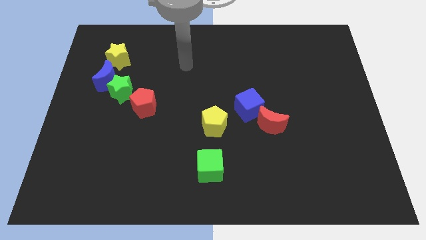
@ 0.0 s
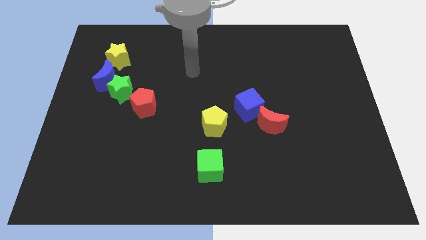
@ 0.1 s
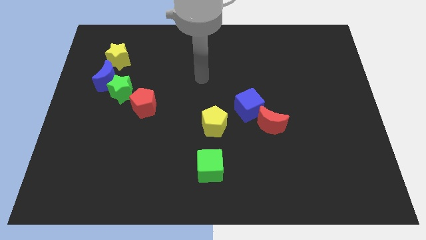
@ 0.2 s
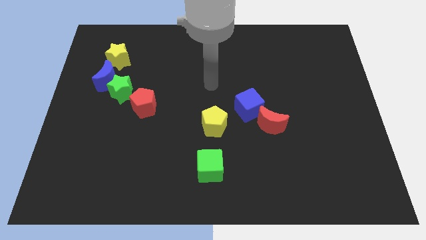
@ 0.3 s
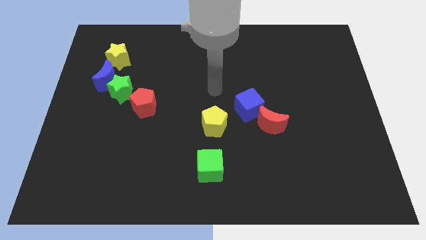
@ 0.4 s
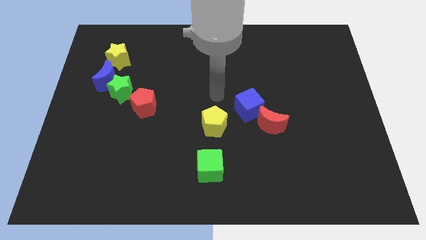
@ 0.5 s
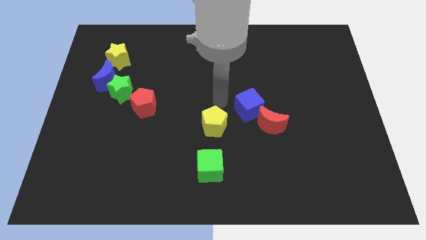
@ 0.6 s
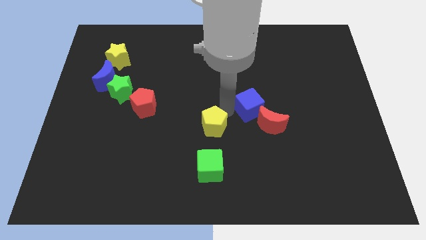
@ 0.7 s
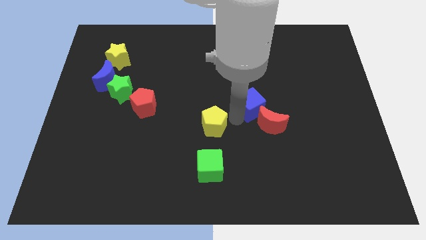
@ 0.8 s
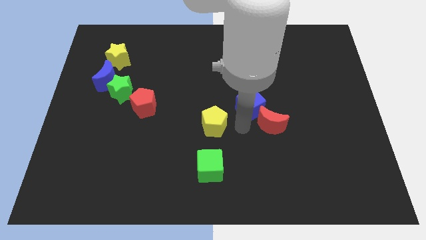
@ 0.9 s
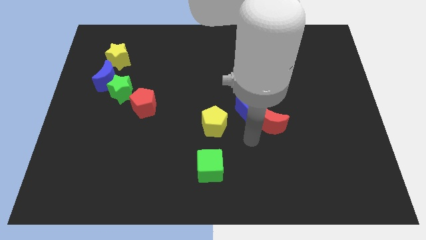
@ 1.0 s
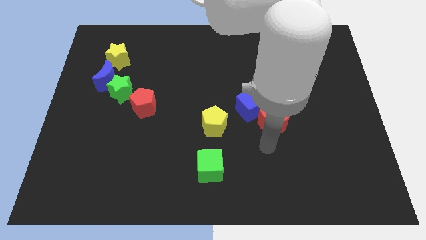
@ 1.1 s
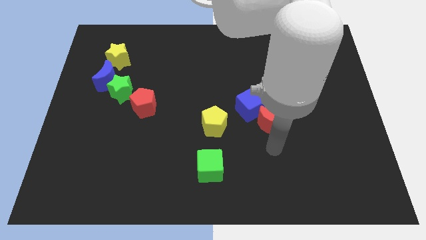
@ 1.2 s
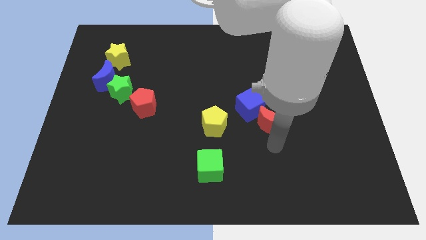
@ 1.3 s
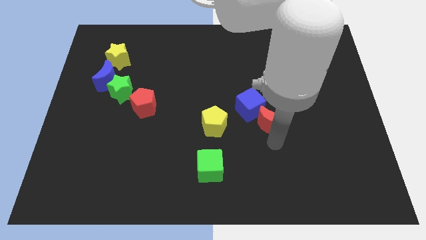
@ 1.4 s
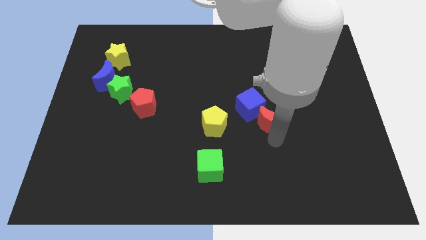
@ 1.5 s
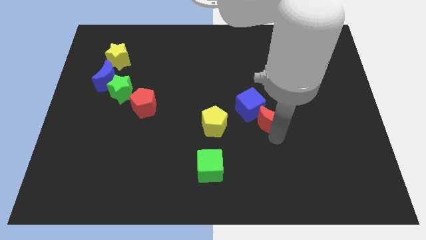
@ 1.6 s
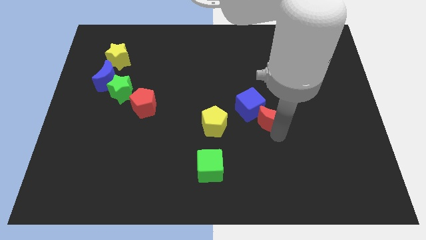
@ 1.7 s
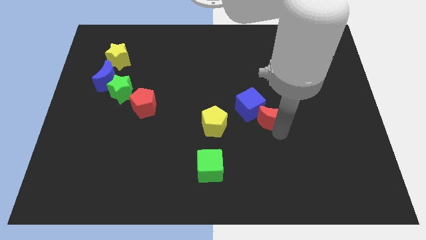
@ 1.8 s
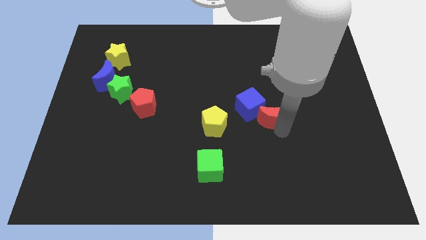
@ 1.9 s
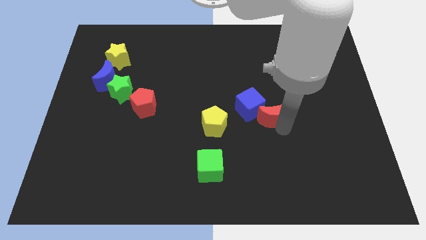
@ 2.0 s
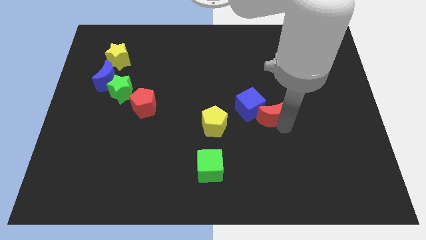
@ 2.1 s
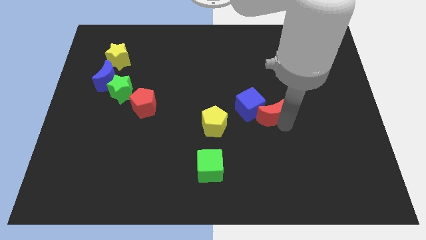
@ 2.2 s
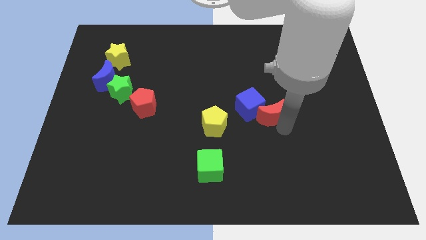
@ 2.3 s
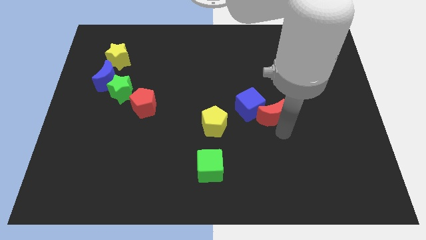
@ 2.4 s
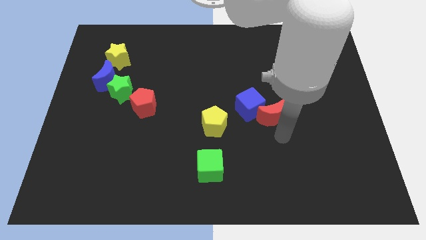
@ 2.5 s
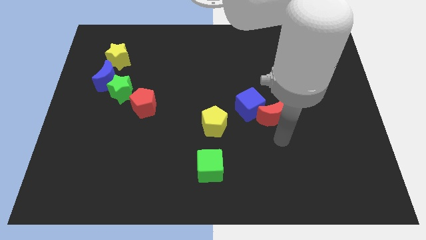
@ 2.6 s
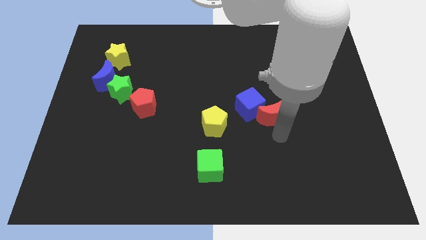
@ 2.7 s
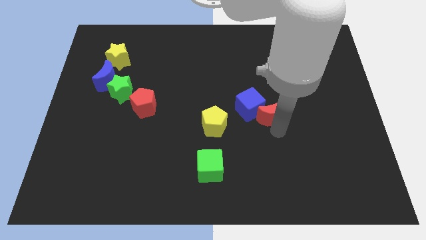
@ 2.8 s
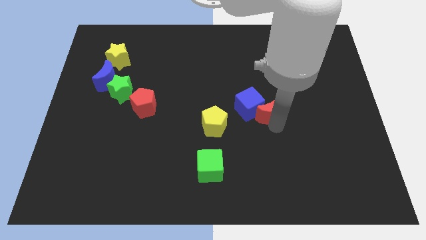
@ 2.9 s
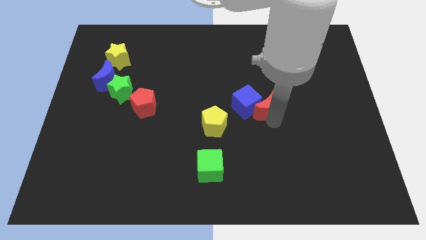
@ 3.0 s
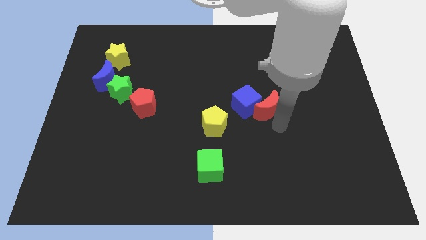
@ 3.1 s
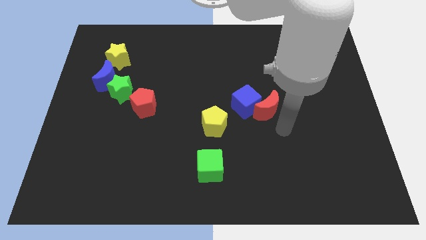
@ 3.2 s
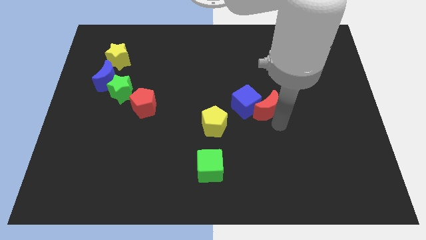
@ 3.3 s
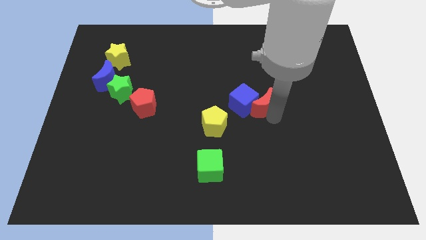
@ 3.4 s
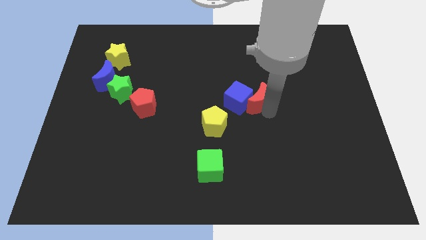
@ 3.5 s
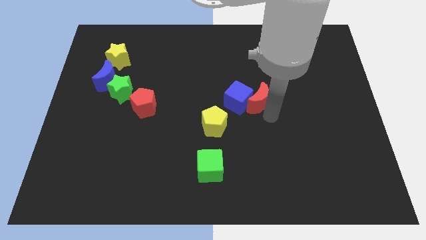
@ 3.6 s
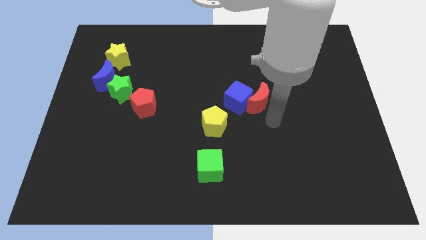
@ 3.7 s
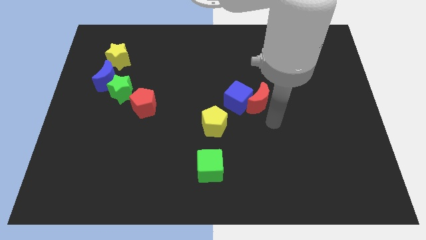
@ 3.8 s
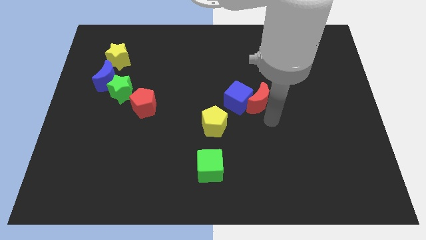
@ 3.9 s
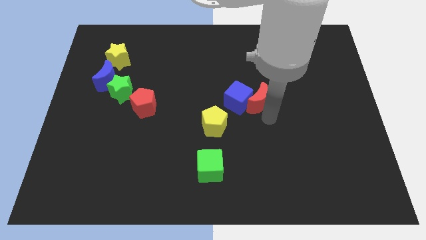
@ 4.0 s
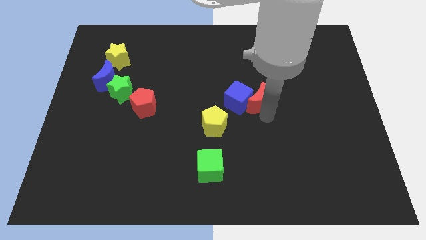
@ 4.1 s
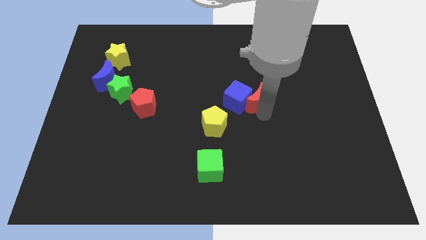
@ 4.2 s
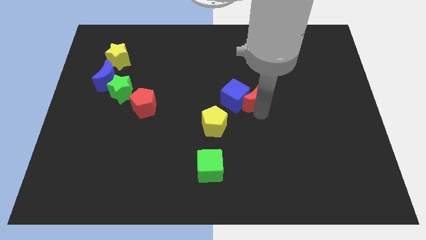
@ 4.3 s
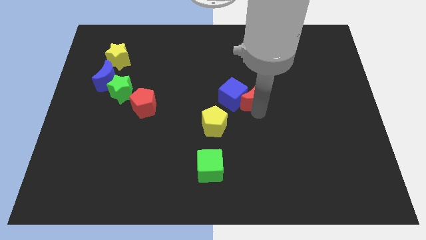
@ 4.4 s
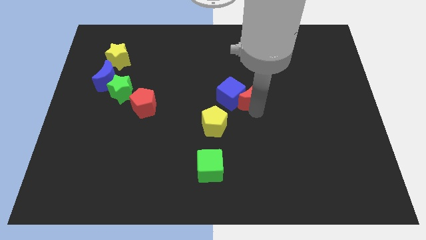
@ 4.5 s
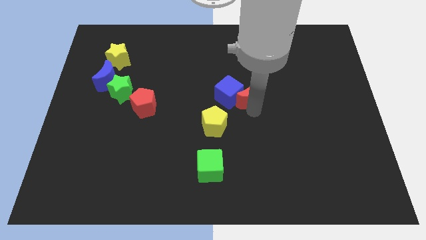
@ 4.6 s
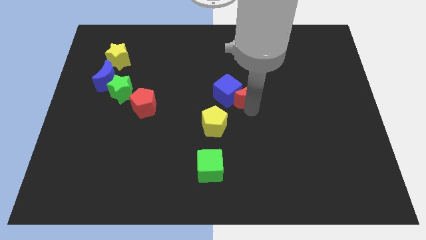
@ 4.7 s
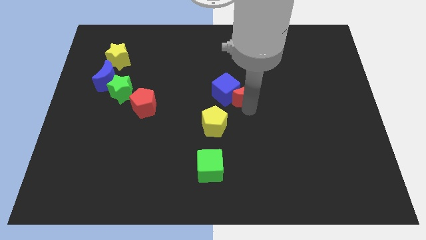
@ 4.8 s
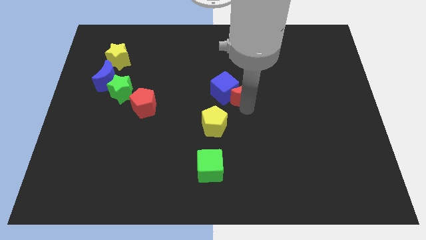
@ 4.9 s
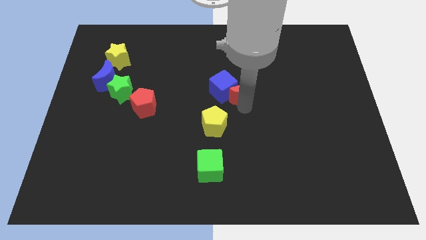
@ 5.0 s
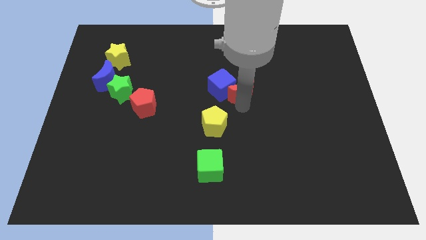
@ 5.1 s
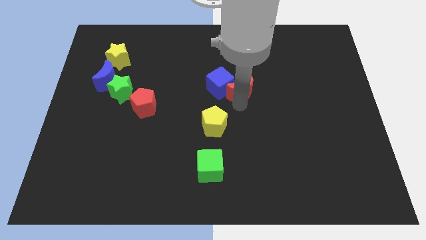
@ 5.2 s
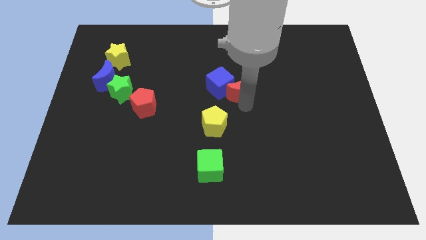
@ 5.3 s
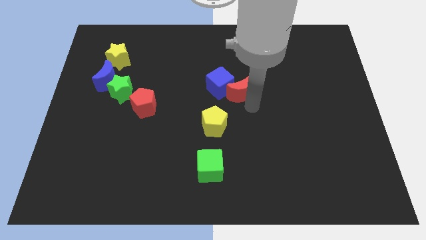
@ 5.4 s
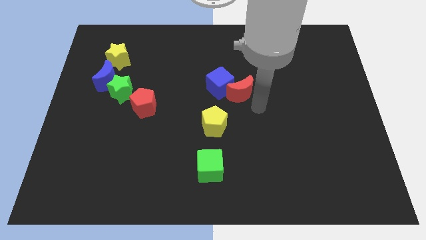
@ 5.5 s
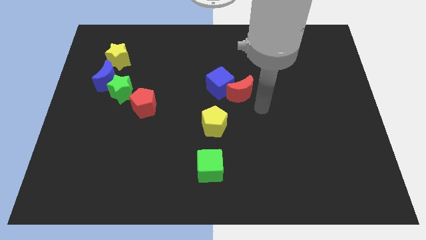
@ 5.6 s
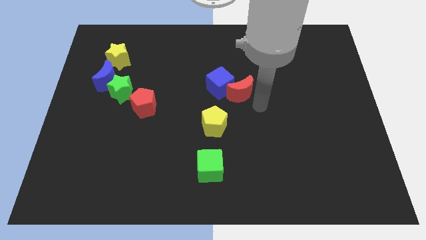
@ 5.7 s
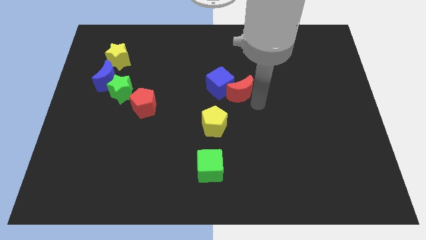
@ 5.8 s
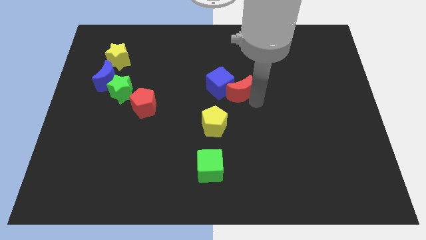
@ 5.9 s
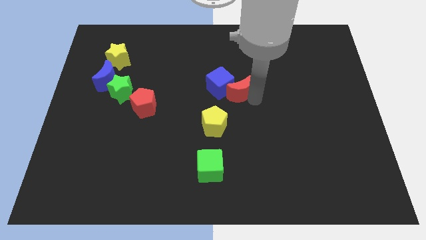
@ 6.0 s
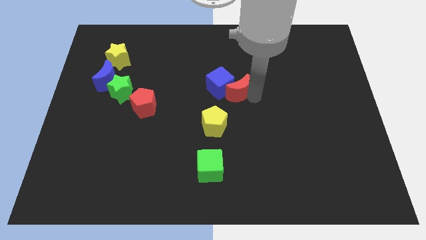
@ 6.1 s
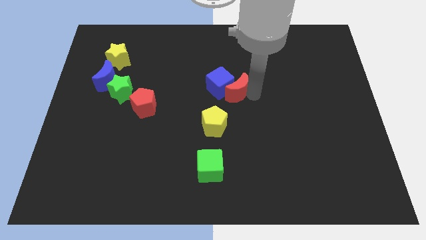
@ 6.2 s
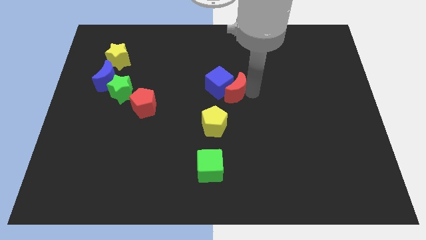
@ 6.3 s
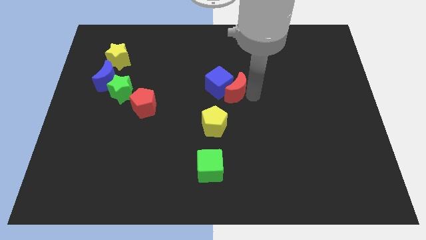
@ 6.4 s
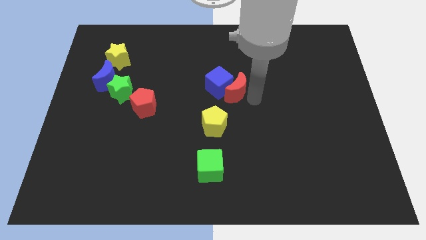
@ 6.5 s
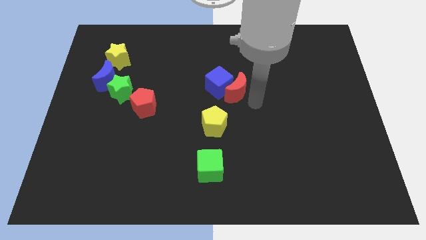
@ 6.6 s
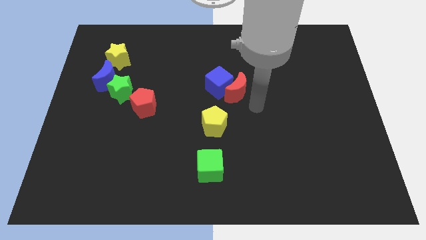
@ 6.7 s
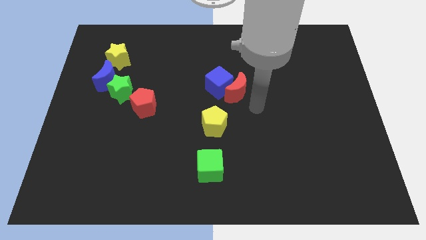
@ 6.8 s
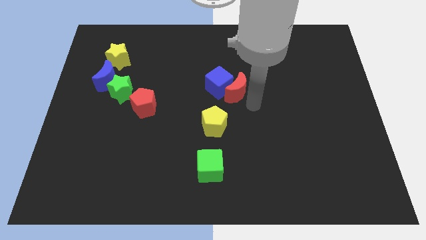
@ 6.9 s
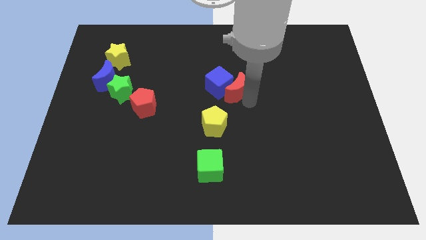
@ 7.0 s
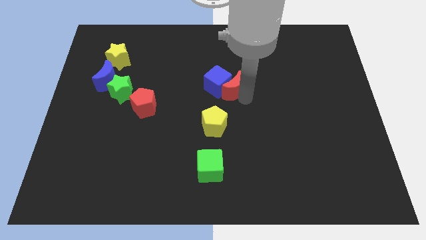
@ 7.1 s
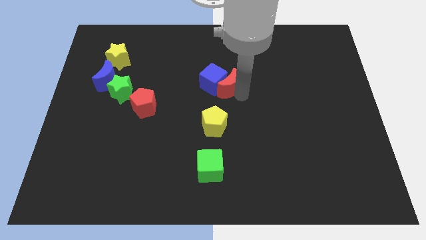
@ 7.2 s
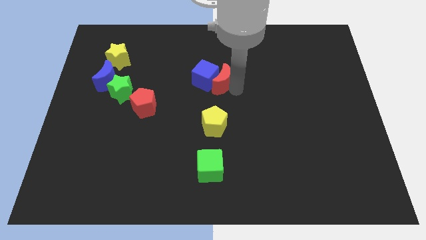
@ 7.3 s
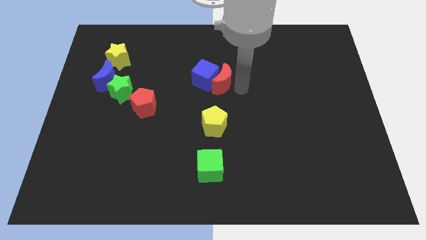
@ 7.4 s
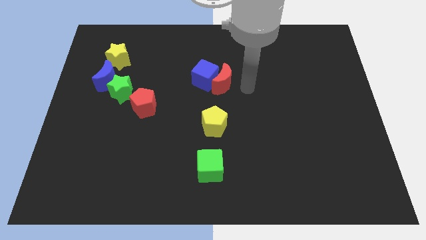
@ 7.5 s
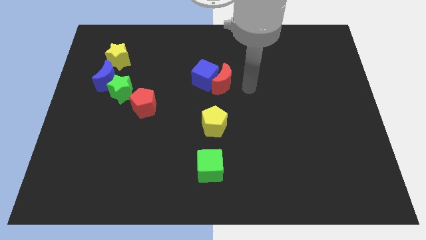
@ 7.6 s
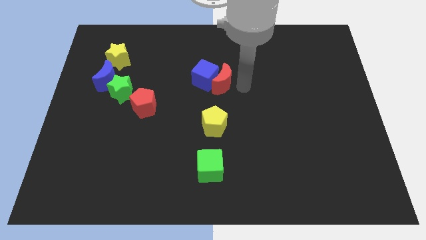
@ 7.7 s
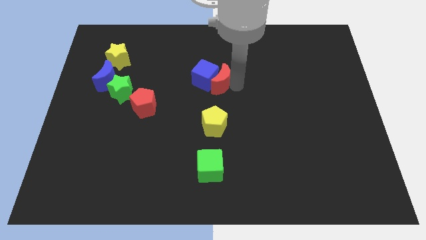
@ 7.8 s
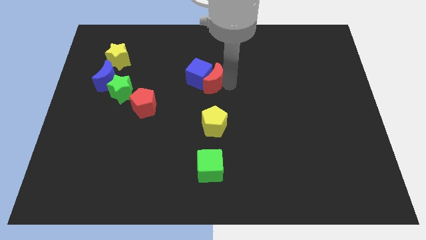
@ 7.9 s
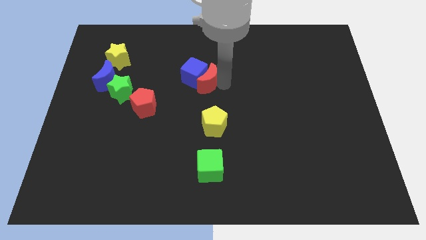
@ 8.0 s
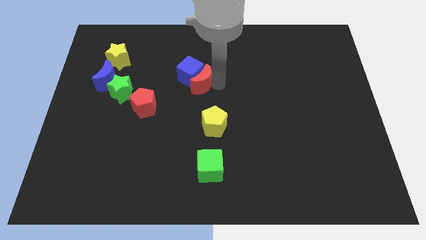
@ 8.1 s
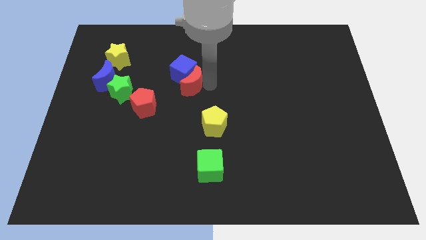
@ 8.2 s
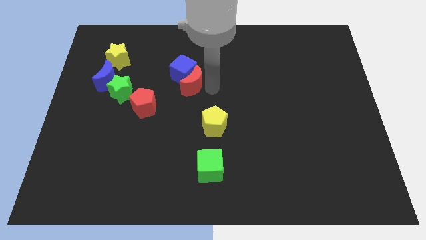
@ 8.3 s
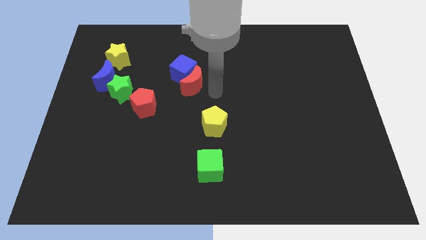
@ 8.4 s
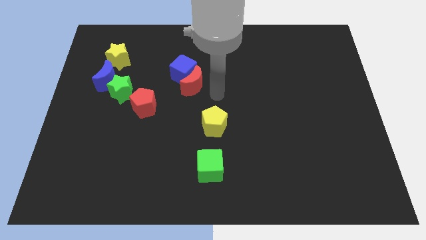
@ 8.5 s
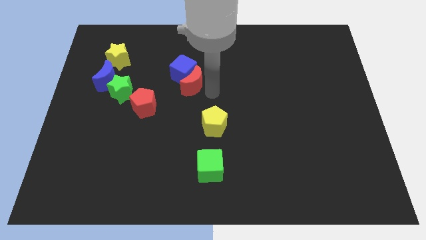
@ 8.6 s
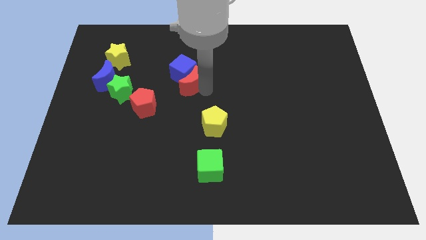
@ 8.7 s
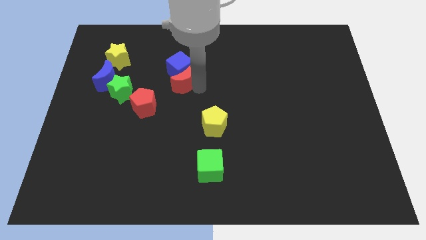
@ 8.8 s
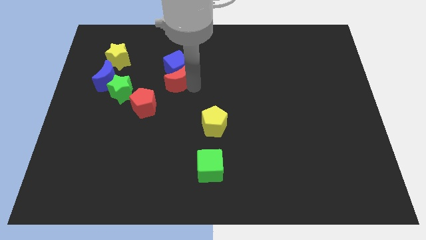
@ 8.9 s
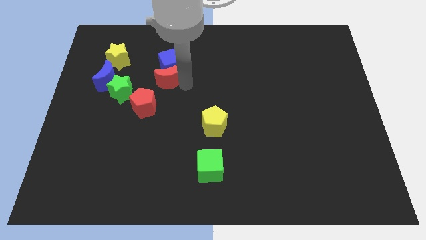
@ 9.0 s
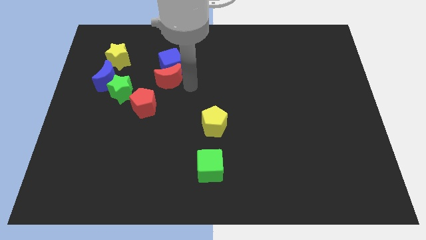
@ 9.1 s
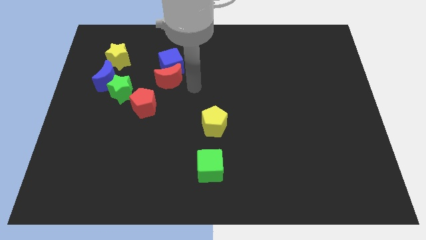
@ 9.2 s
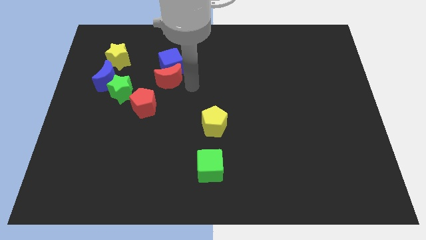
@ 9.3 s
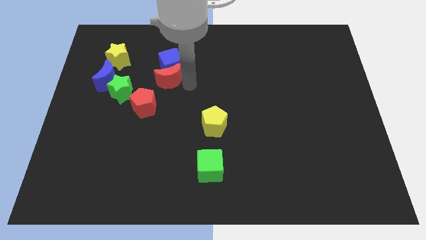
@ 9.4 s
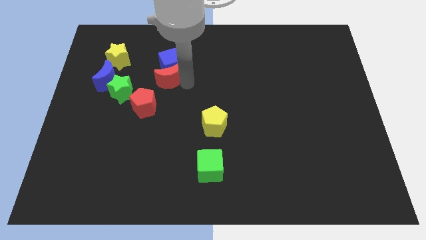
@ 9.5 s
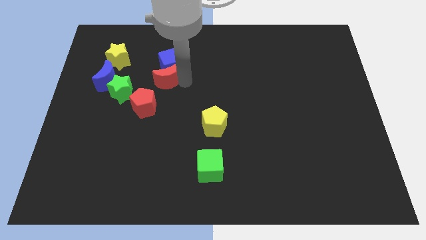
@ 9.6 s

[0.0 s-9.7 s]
put the red moon to the top of the red pentagon
